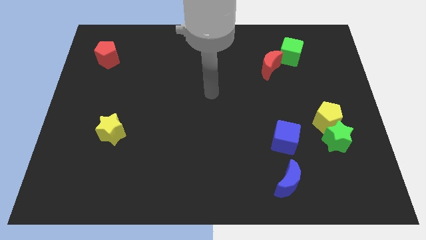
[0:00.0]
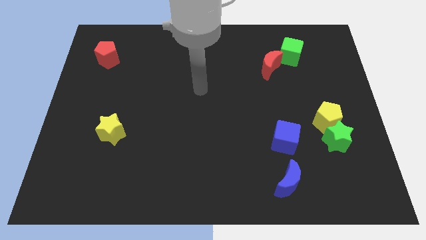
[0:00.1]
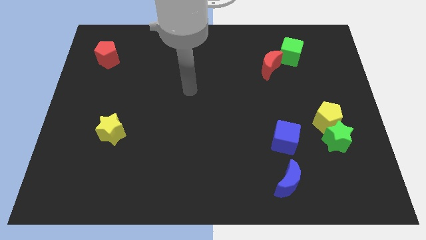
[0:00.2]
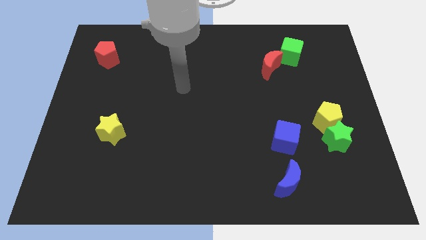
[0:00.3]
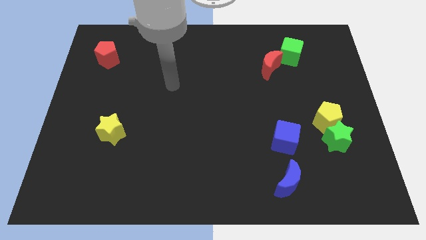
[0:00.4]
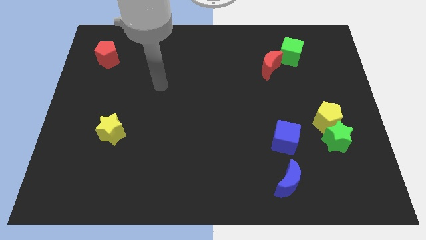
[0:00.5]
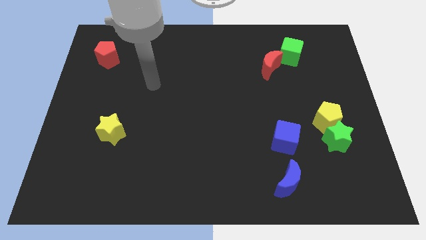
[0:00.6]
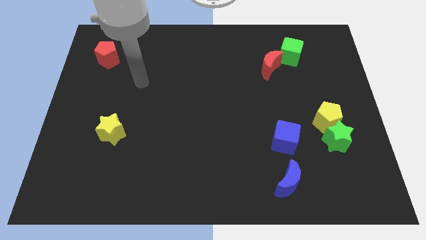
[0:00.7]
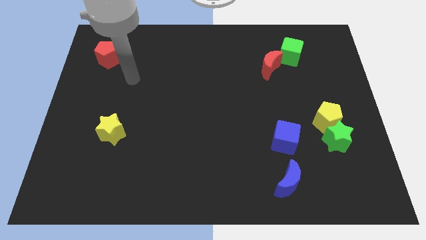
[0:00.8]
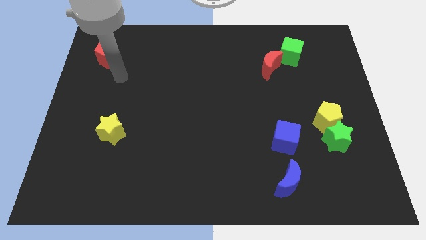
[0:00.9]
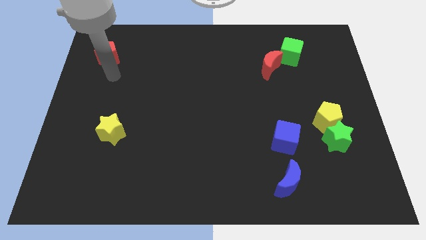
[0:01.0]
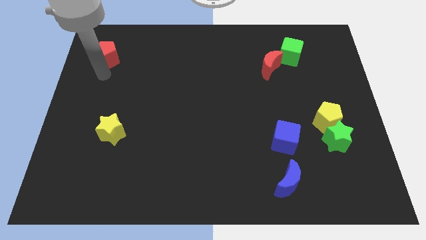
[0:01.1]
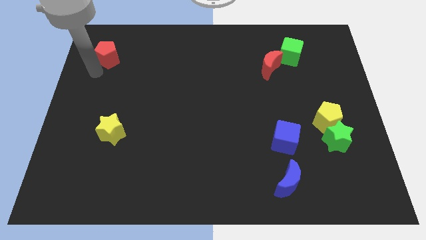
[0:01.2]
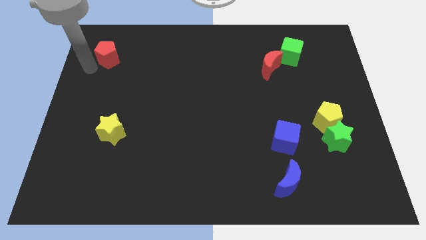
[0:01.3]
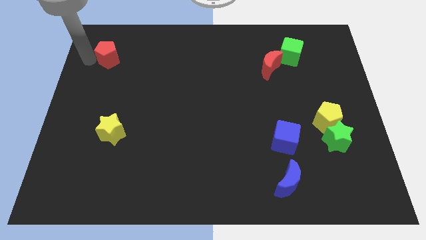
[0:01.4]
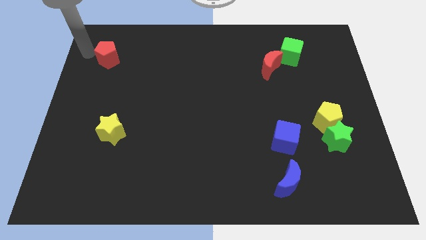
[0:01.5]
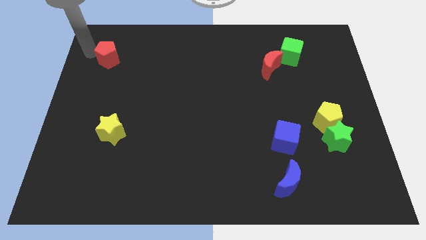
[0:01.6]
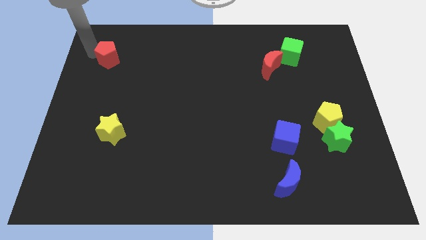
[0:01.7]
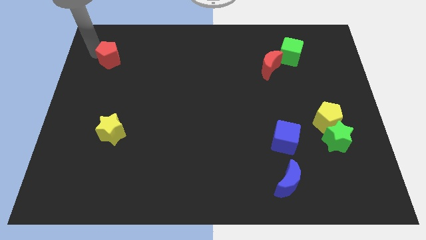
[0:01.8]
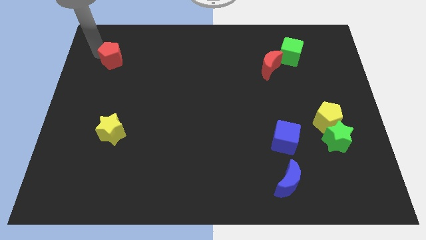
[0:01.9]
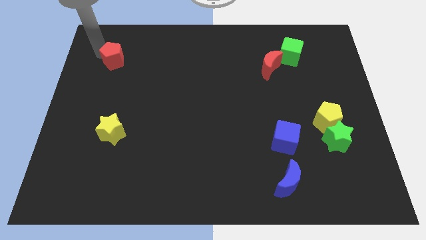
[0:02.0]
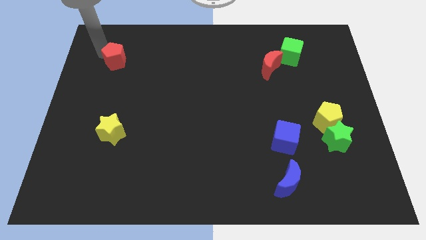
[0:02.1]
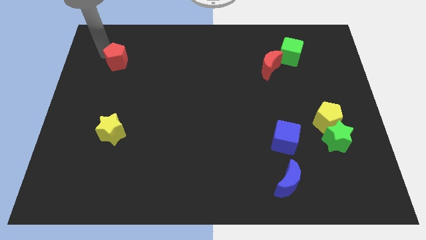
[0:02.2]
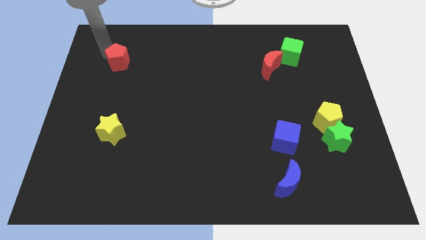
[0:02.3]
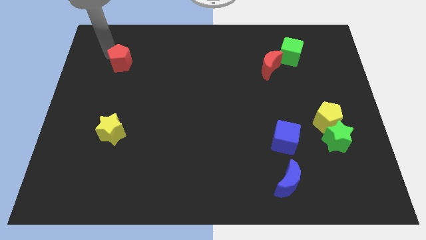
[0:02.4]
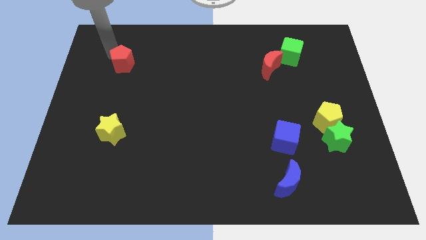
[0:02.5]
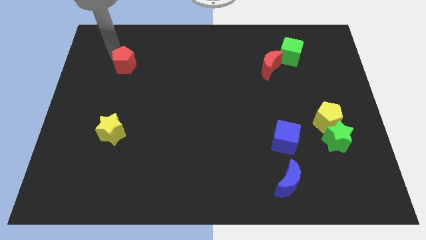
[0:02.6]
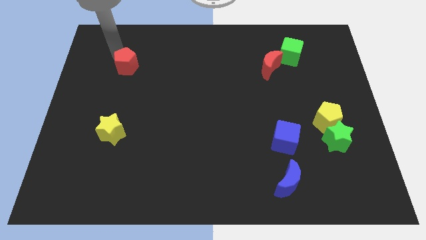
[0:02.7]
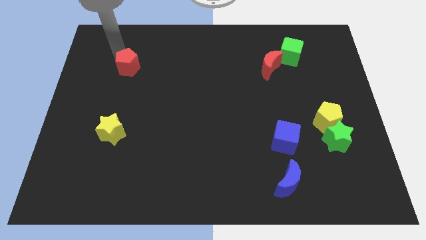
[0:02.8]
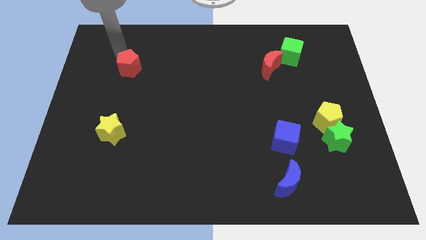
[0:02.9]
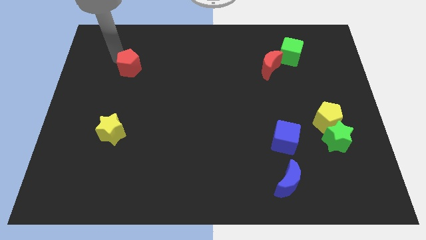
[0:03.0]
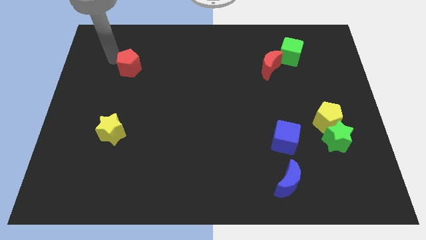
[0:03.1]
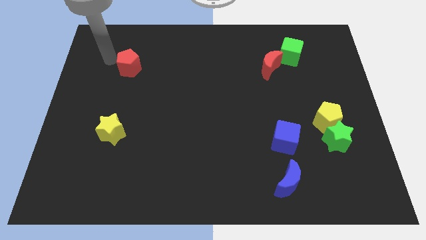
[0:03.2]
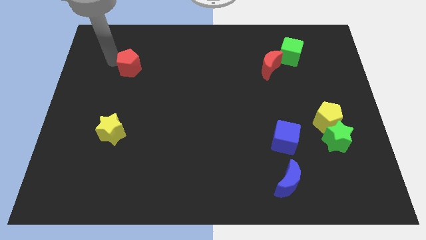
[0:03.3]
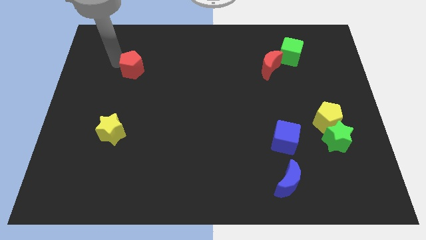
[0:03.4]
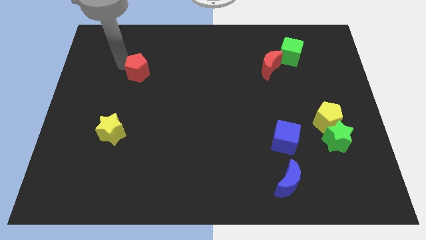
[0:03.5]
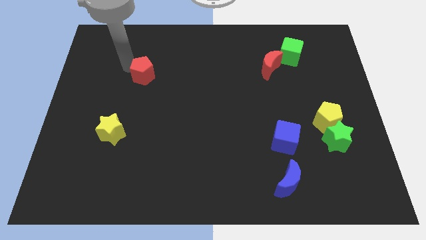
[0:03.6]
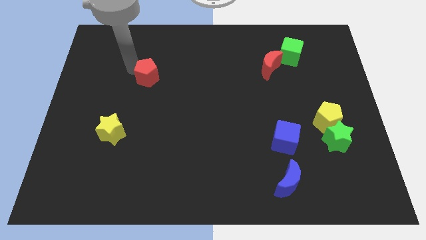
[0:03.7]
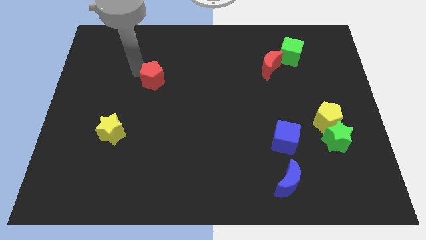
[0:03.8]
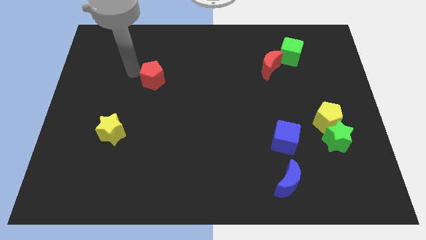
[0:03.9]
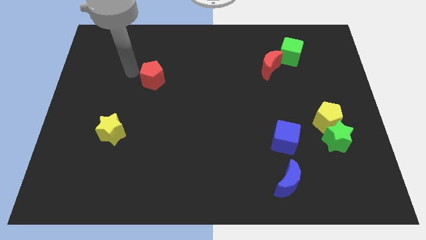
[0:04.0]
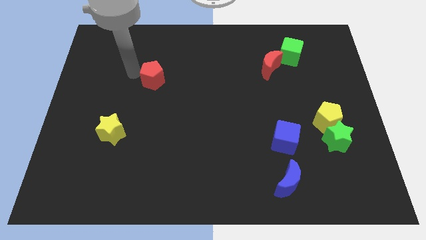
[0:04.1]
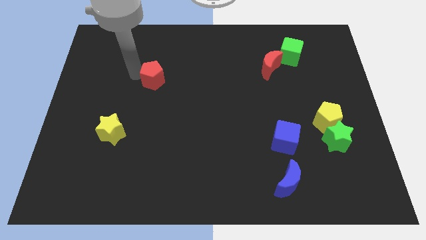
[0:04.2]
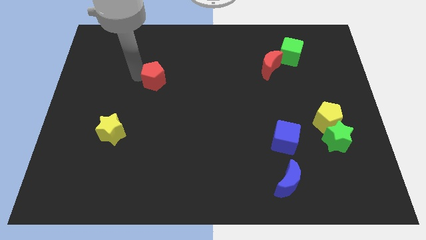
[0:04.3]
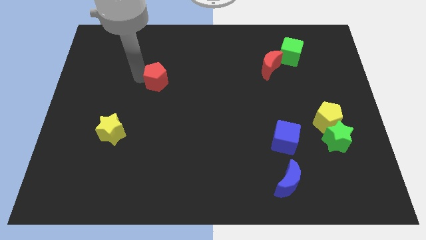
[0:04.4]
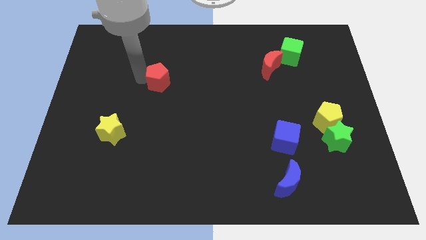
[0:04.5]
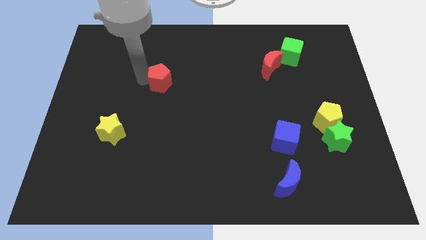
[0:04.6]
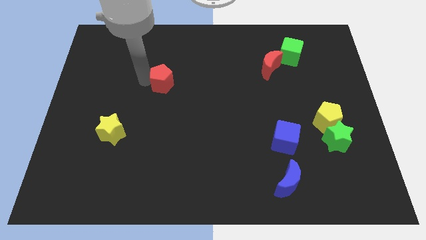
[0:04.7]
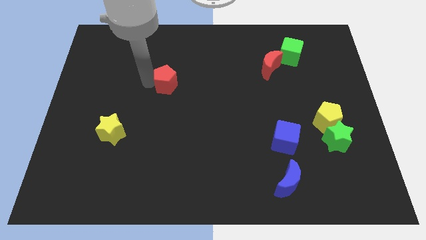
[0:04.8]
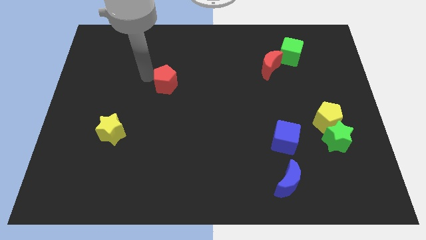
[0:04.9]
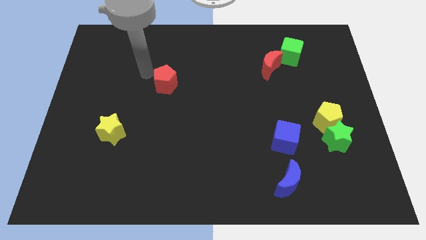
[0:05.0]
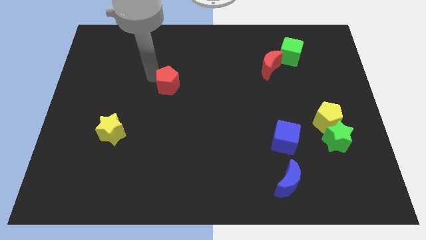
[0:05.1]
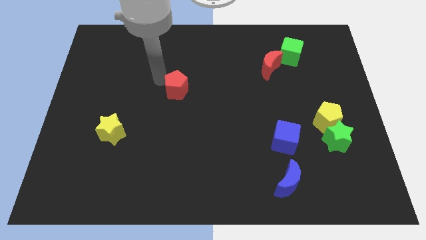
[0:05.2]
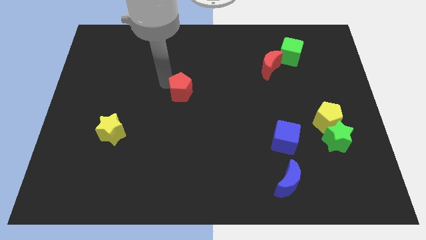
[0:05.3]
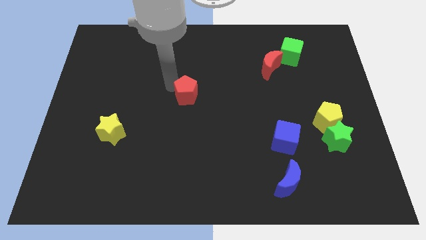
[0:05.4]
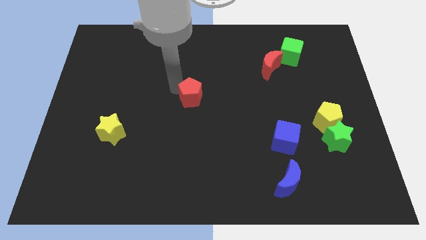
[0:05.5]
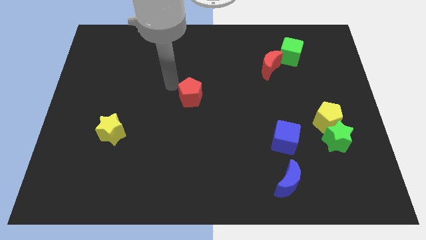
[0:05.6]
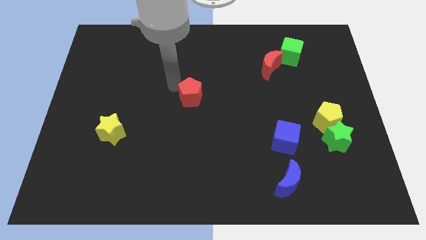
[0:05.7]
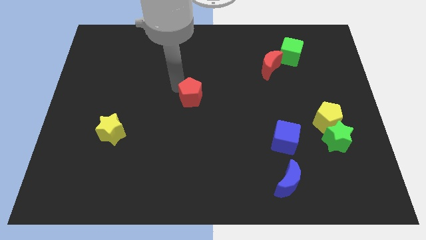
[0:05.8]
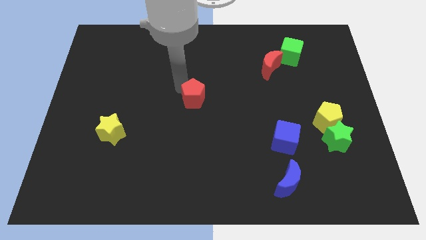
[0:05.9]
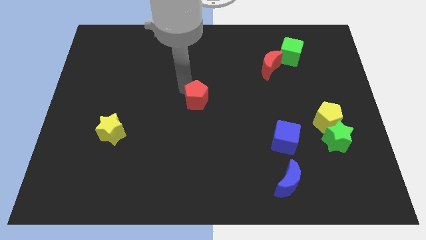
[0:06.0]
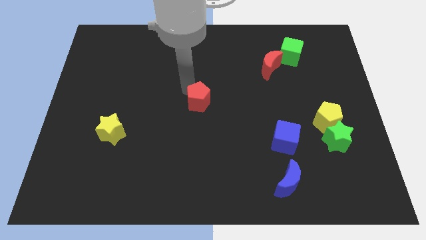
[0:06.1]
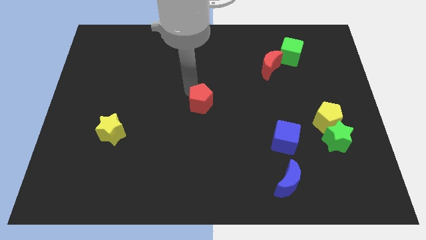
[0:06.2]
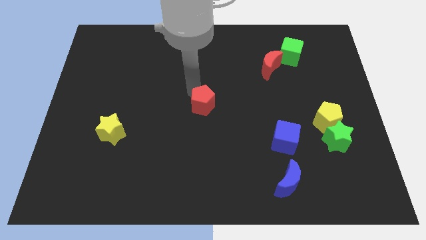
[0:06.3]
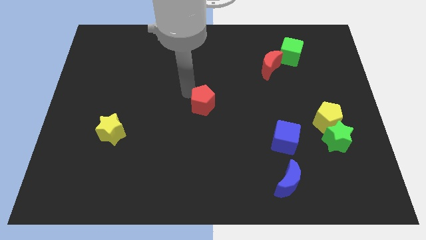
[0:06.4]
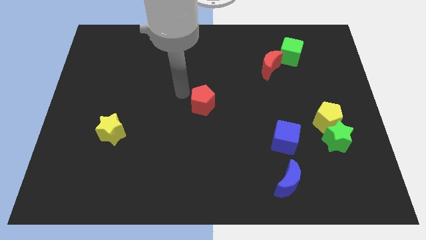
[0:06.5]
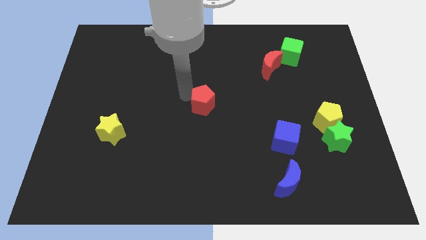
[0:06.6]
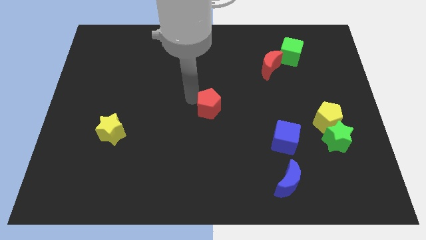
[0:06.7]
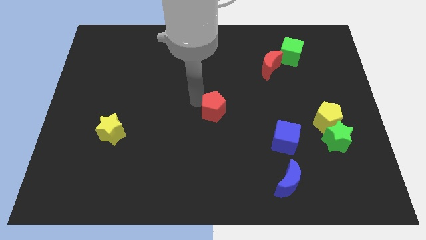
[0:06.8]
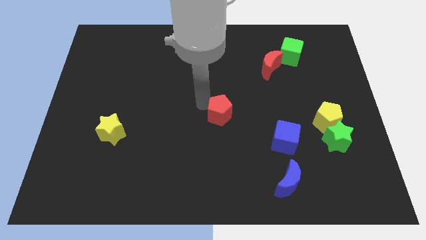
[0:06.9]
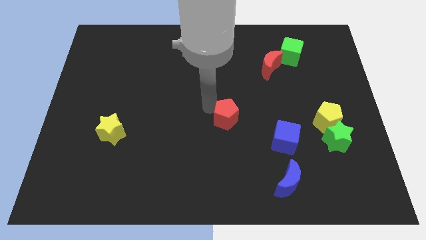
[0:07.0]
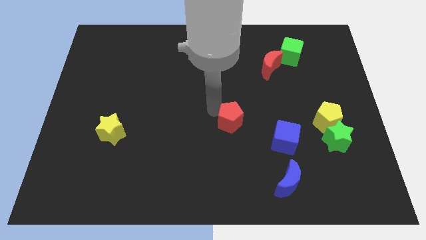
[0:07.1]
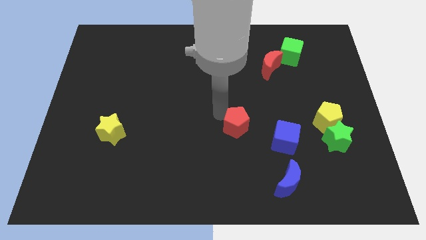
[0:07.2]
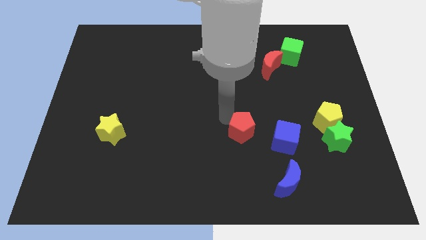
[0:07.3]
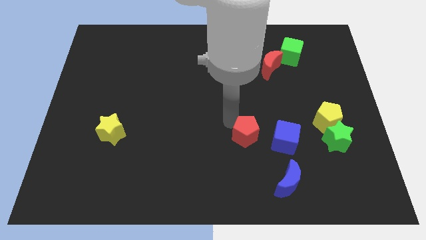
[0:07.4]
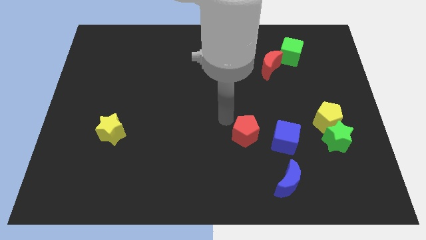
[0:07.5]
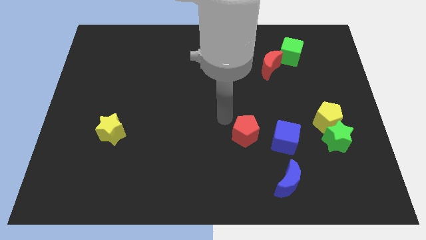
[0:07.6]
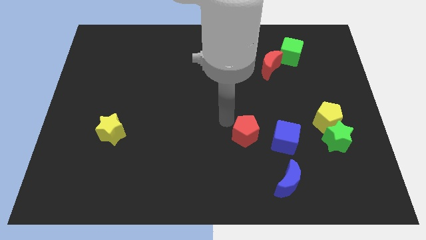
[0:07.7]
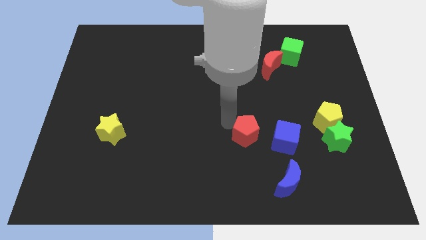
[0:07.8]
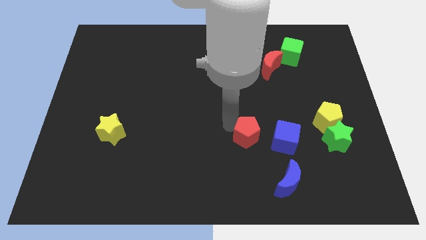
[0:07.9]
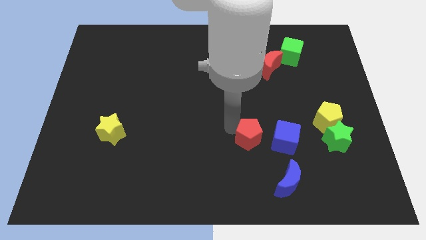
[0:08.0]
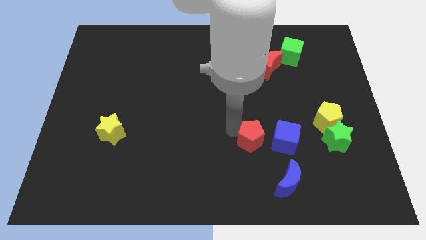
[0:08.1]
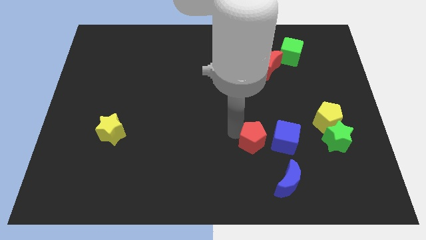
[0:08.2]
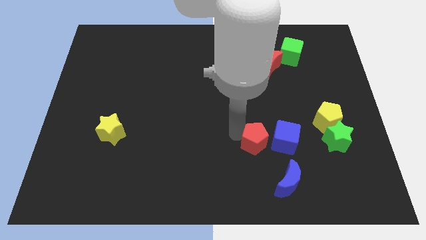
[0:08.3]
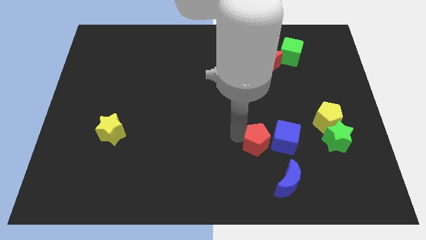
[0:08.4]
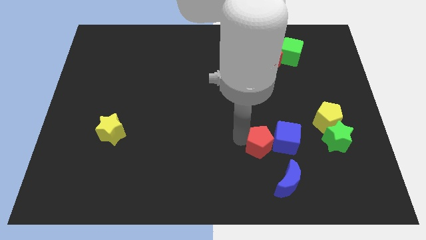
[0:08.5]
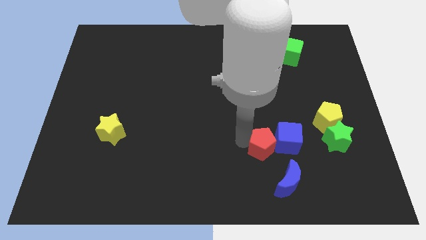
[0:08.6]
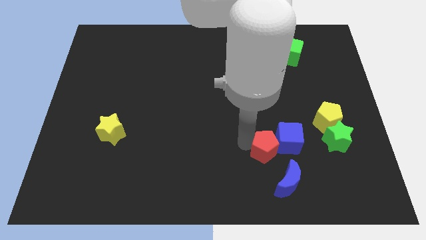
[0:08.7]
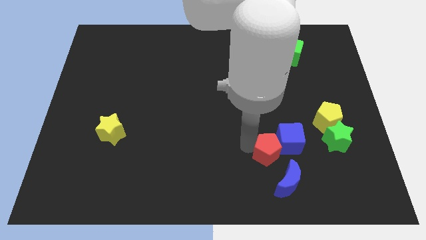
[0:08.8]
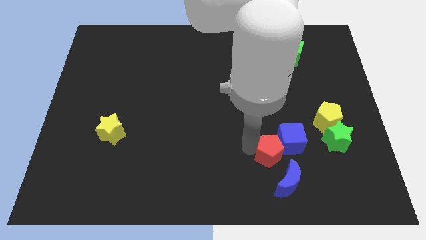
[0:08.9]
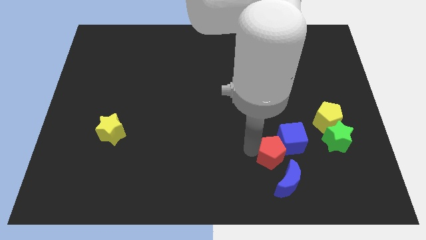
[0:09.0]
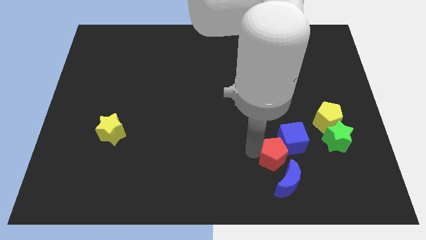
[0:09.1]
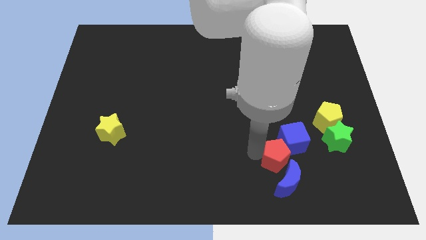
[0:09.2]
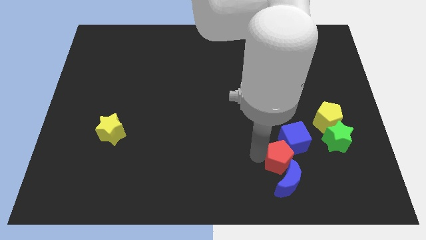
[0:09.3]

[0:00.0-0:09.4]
move the red pentagon diagonally up and to the right of the blue moon
